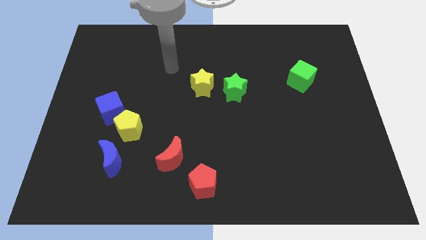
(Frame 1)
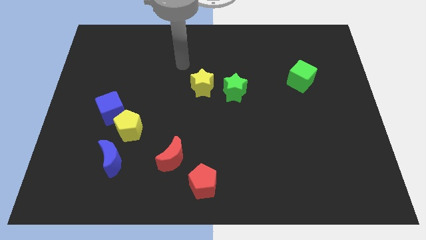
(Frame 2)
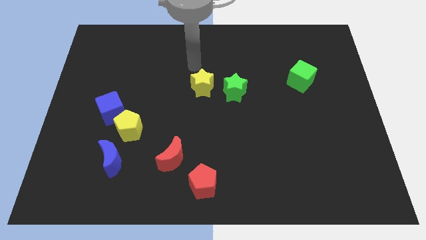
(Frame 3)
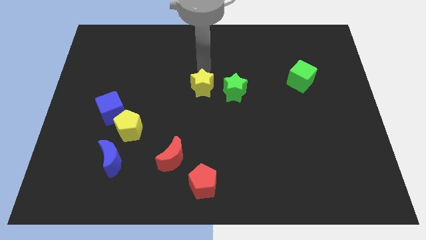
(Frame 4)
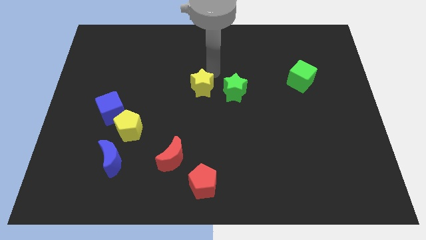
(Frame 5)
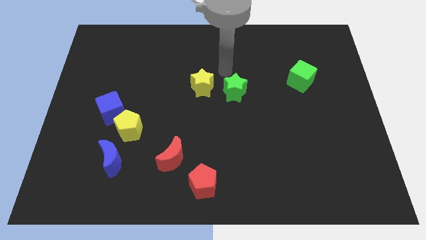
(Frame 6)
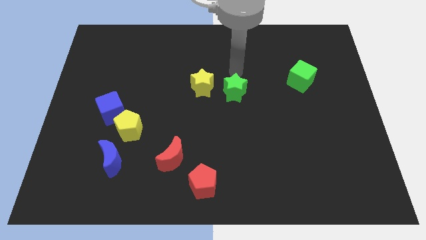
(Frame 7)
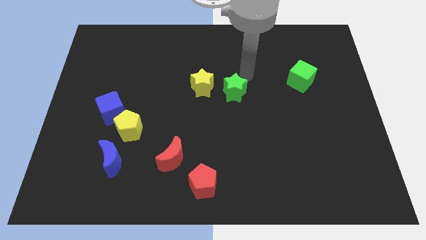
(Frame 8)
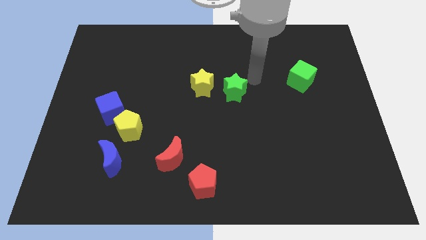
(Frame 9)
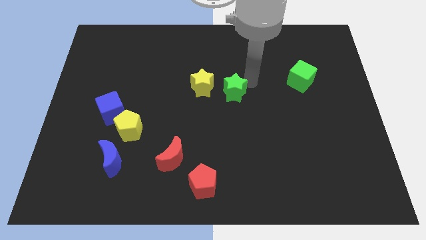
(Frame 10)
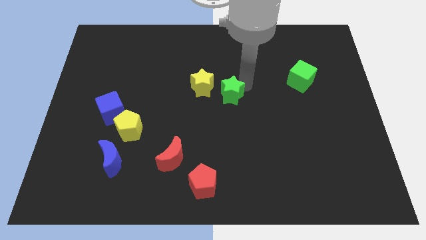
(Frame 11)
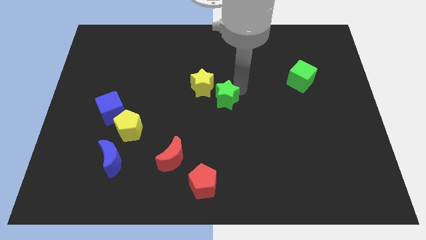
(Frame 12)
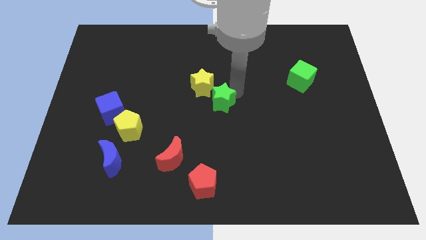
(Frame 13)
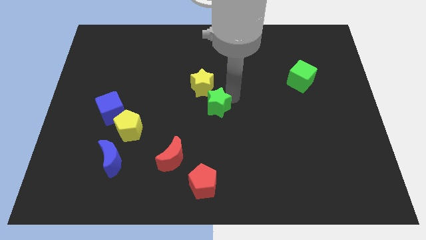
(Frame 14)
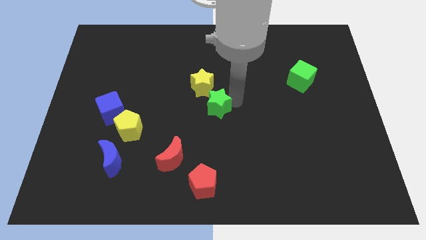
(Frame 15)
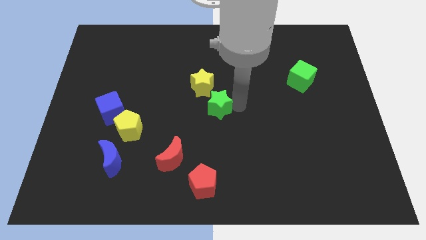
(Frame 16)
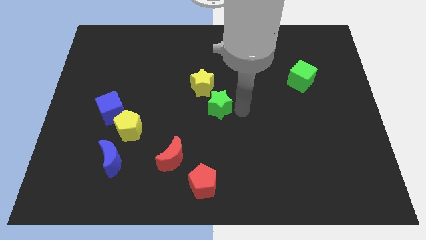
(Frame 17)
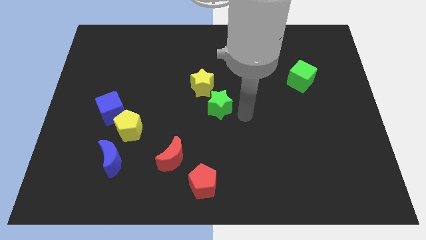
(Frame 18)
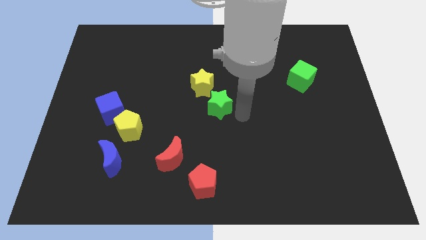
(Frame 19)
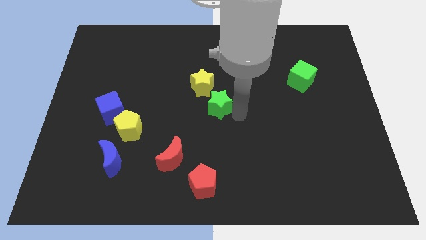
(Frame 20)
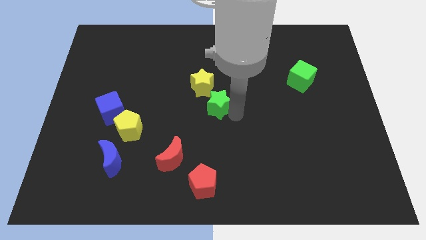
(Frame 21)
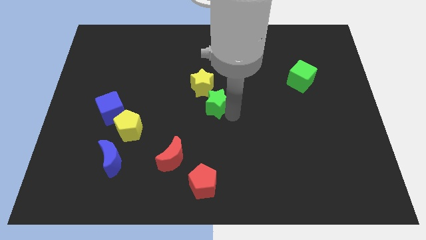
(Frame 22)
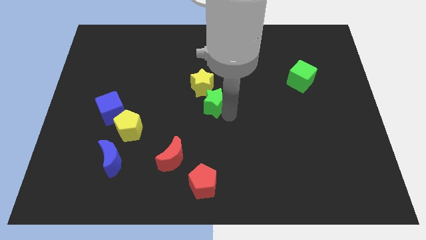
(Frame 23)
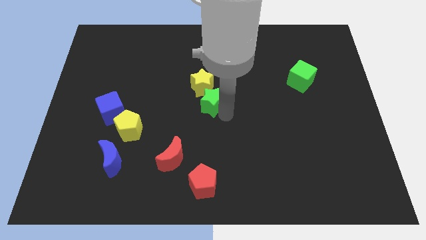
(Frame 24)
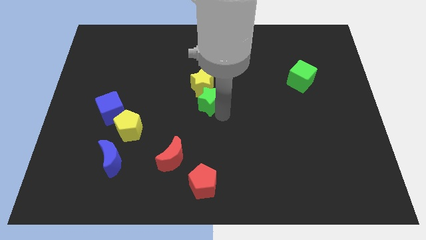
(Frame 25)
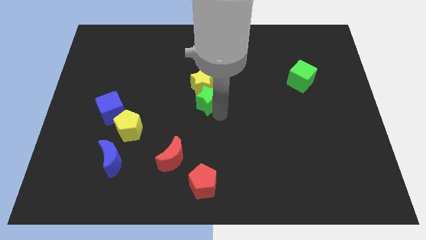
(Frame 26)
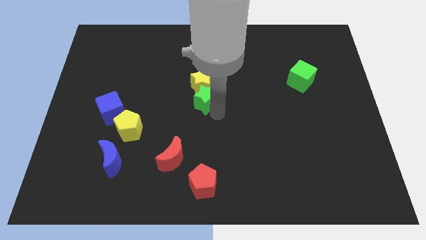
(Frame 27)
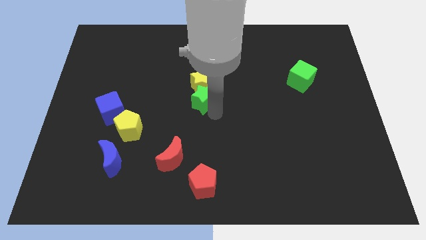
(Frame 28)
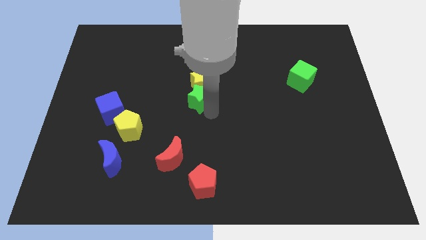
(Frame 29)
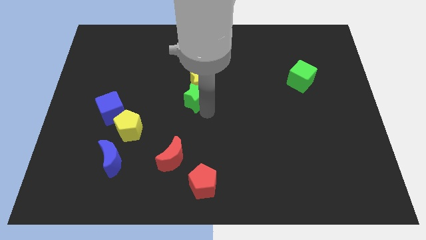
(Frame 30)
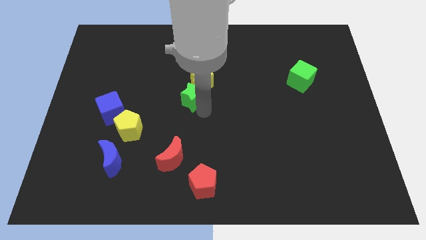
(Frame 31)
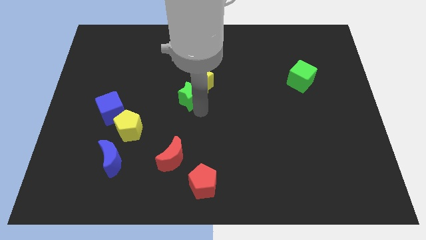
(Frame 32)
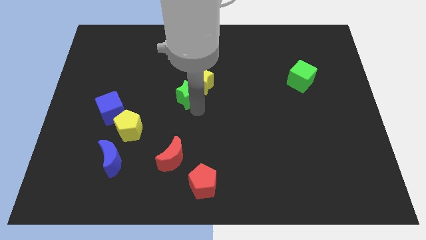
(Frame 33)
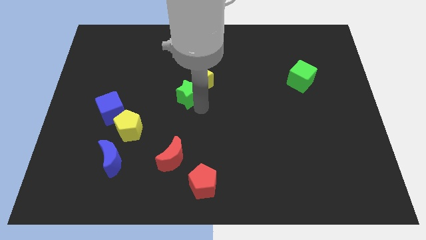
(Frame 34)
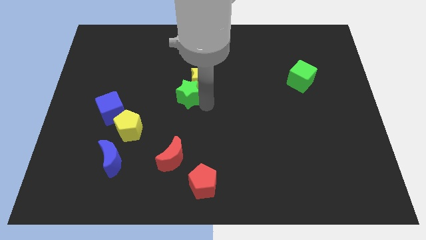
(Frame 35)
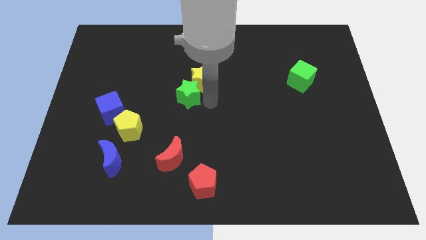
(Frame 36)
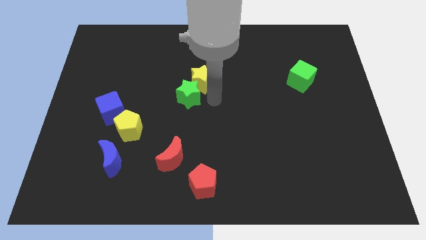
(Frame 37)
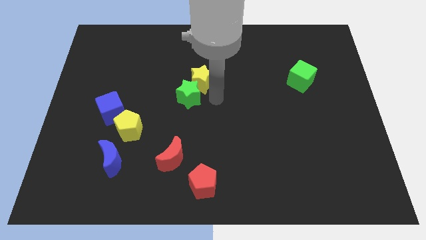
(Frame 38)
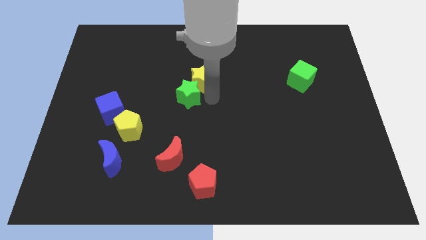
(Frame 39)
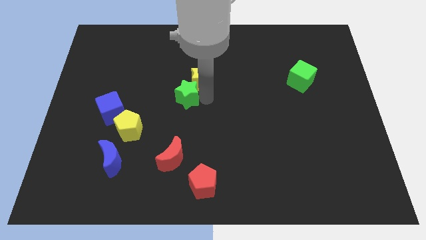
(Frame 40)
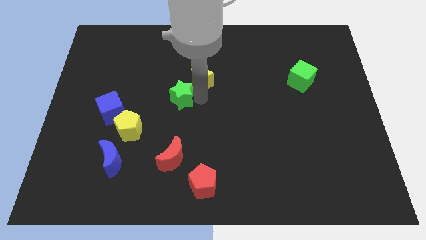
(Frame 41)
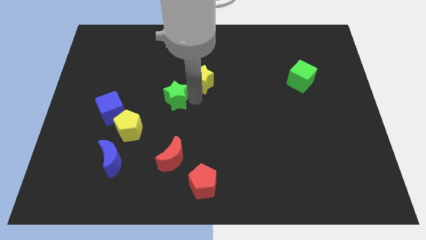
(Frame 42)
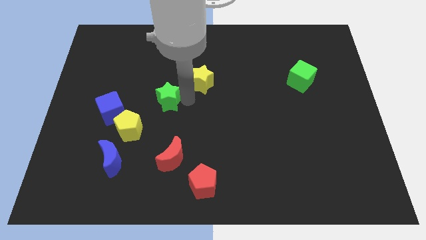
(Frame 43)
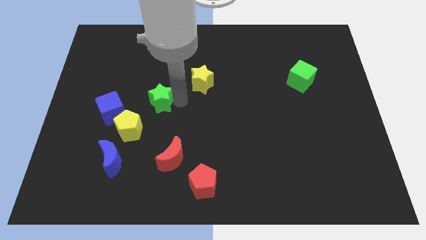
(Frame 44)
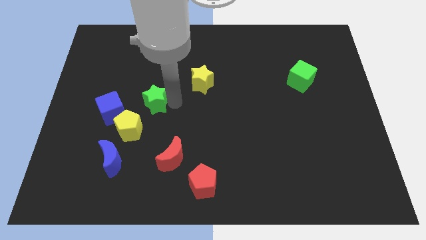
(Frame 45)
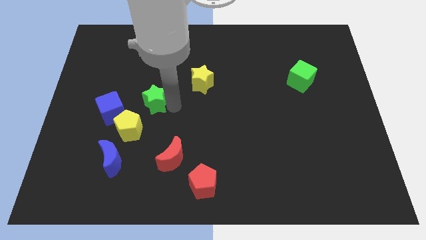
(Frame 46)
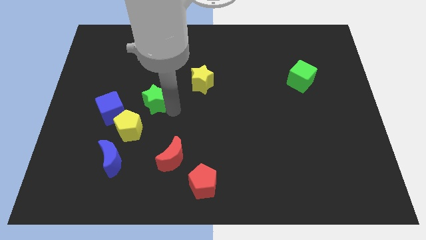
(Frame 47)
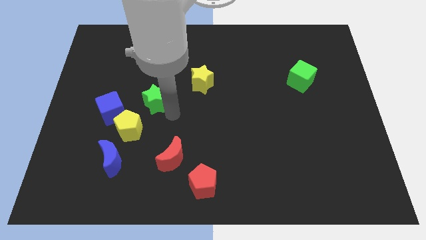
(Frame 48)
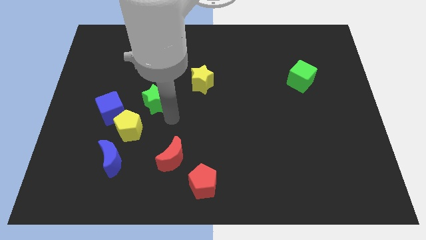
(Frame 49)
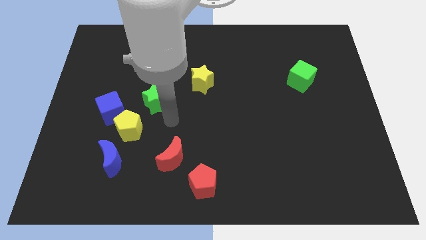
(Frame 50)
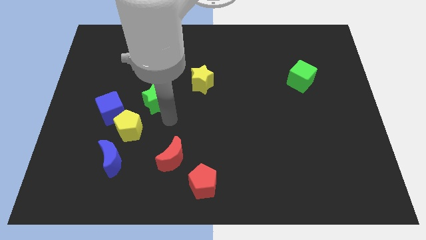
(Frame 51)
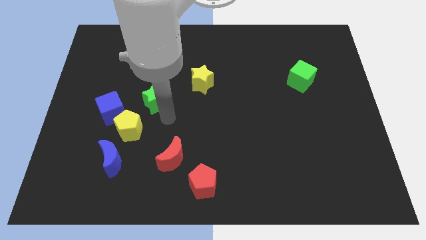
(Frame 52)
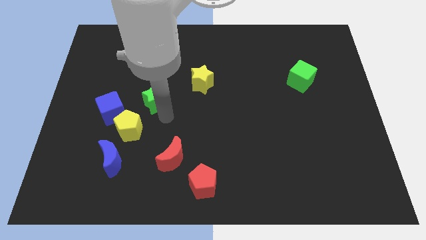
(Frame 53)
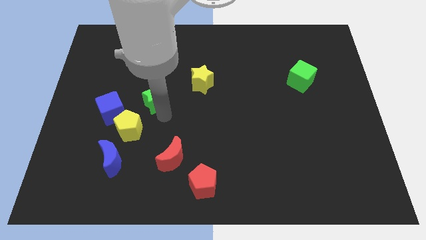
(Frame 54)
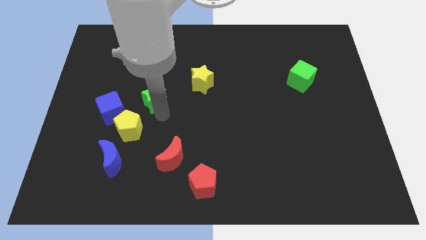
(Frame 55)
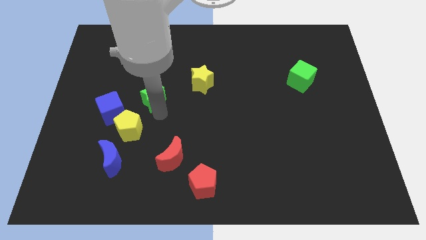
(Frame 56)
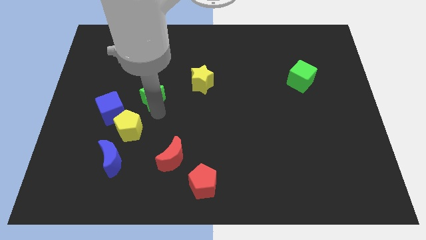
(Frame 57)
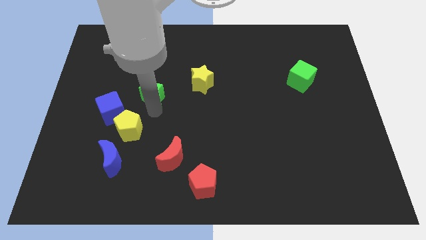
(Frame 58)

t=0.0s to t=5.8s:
move the green star left

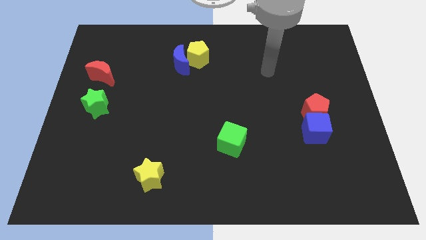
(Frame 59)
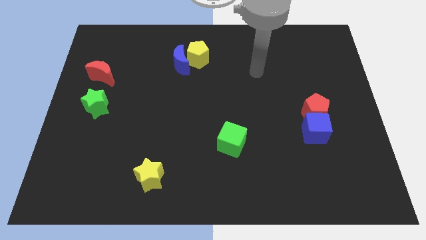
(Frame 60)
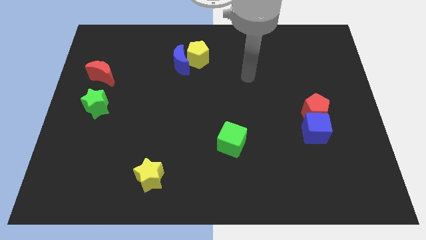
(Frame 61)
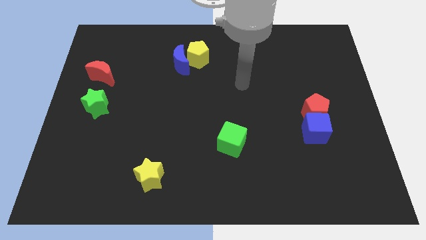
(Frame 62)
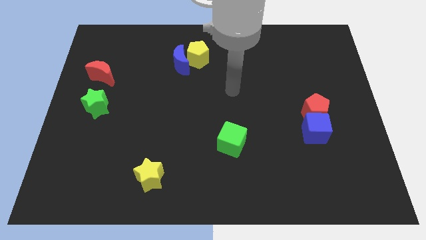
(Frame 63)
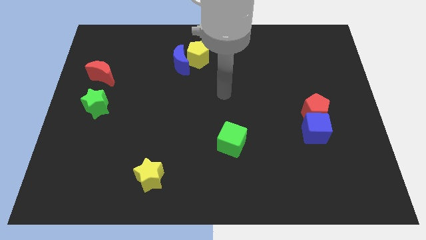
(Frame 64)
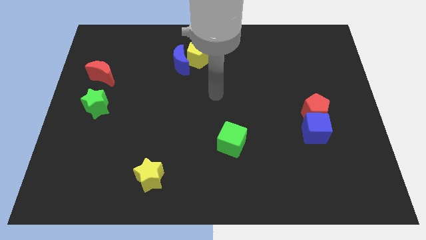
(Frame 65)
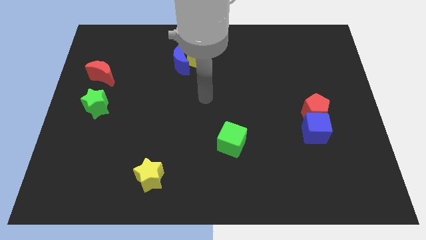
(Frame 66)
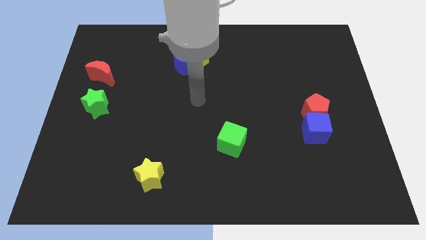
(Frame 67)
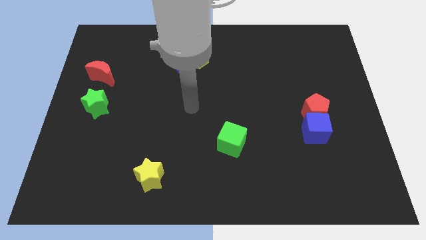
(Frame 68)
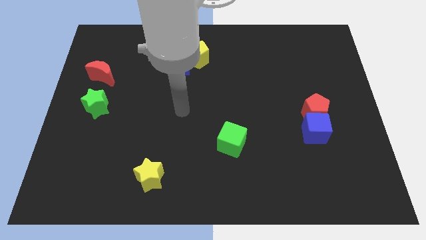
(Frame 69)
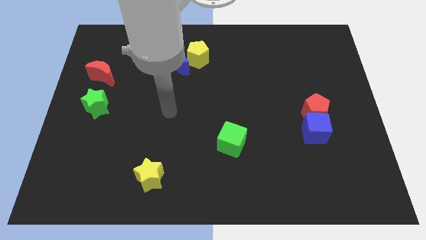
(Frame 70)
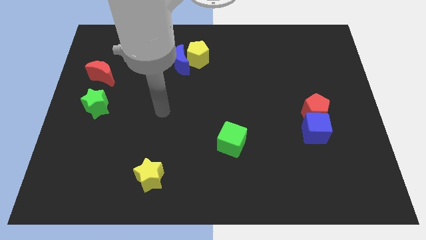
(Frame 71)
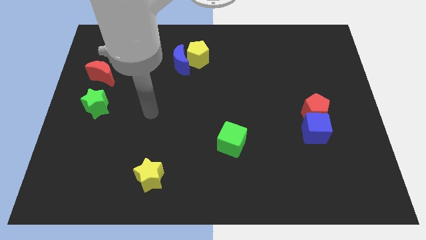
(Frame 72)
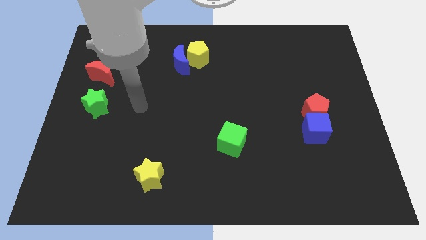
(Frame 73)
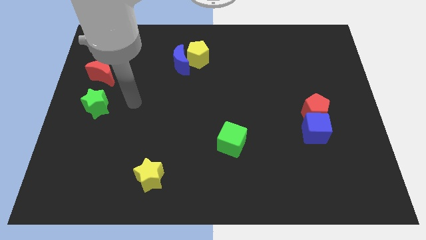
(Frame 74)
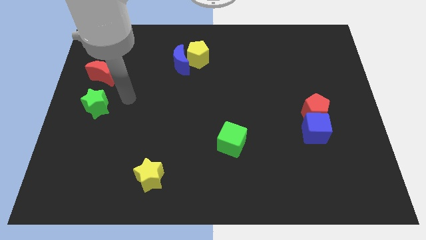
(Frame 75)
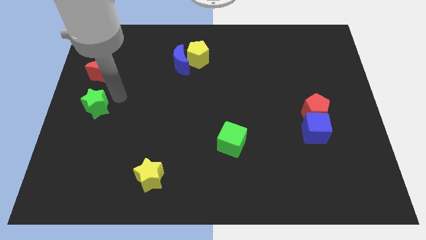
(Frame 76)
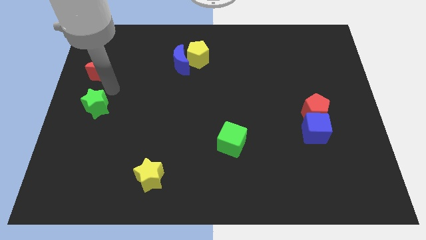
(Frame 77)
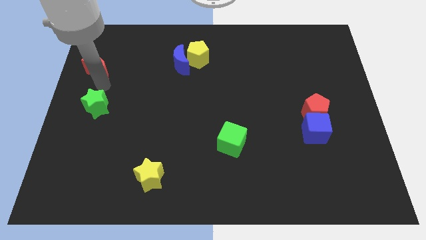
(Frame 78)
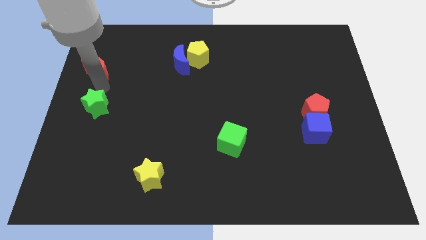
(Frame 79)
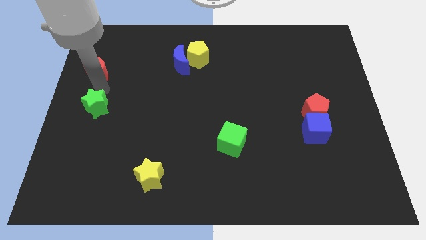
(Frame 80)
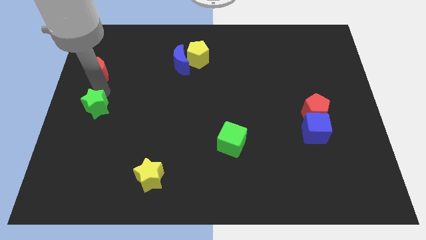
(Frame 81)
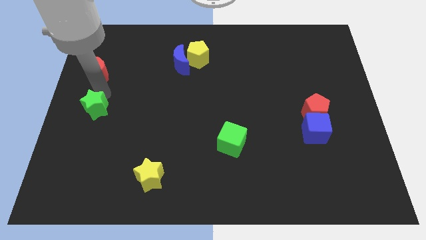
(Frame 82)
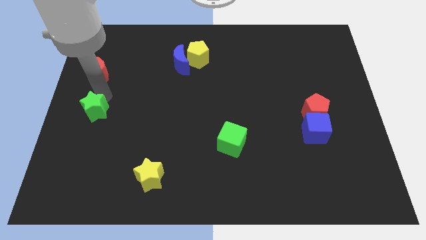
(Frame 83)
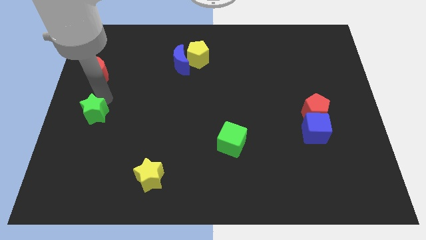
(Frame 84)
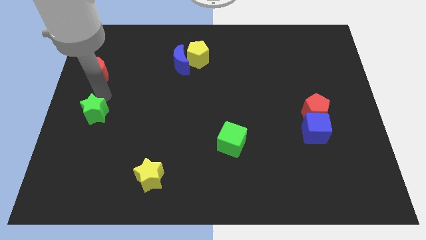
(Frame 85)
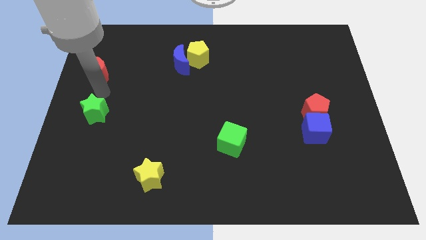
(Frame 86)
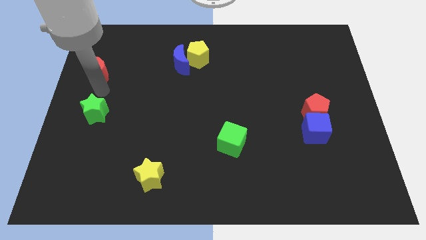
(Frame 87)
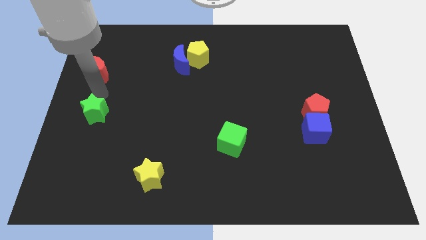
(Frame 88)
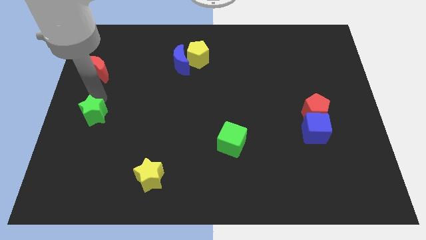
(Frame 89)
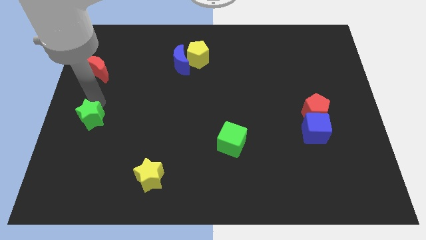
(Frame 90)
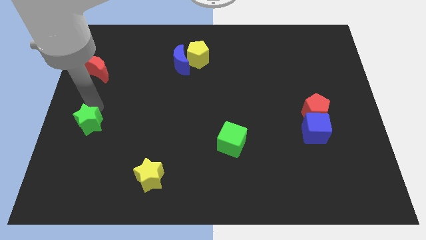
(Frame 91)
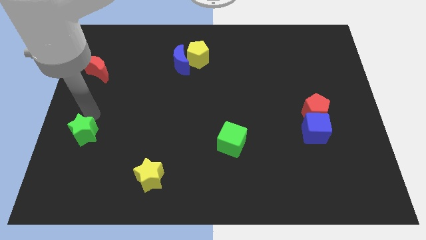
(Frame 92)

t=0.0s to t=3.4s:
slide the green star down a little bit
